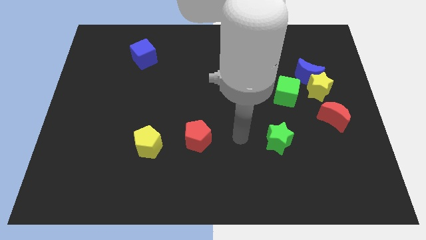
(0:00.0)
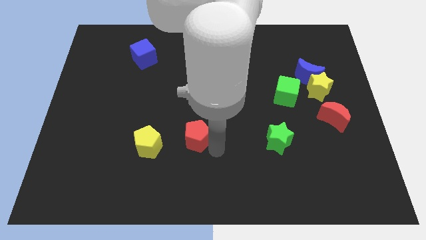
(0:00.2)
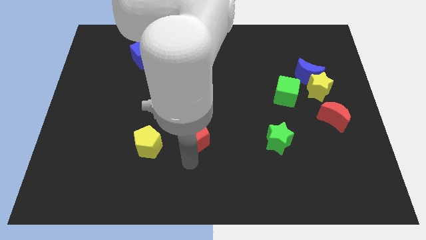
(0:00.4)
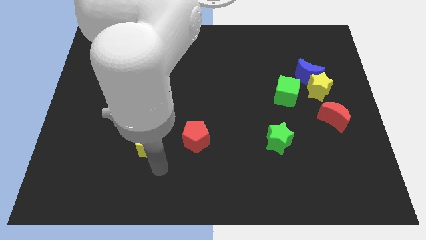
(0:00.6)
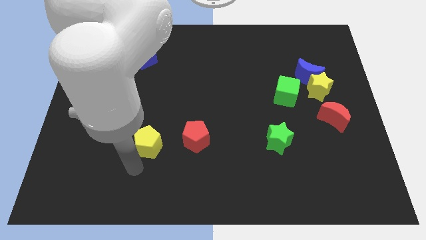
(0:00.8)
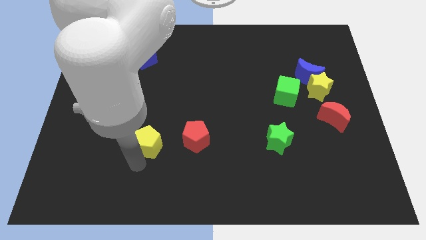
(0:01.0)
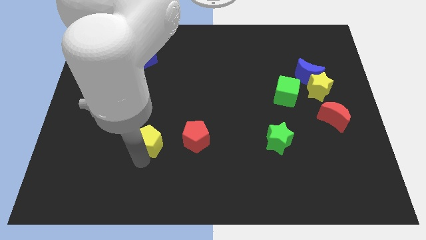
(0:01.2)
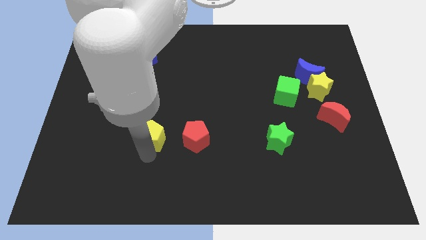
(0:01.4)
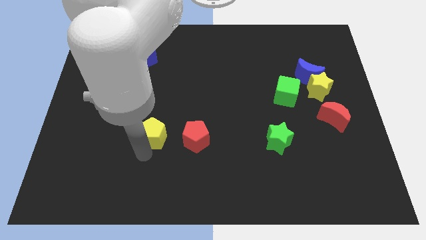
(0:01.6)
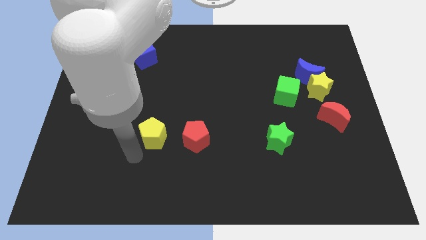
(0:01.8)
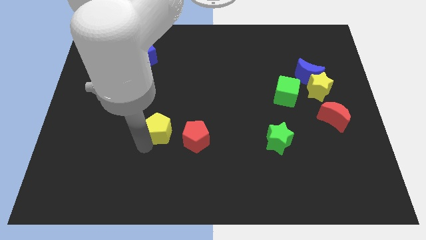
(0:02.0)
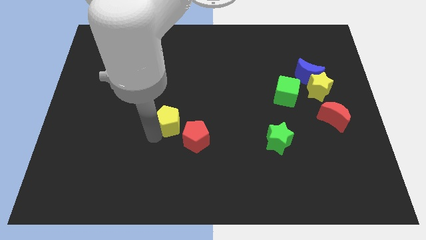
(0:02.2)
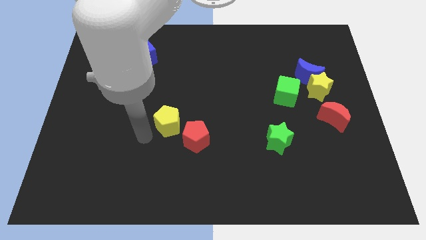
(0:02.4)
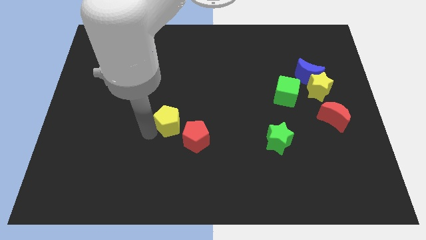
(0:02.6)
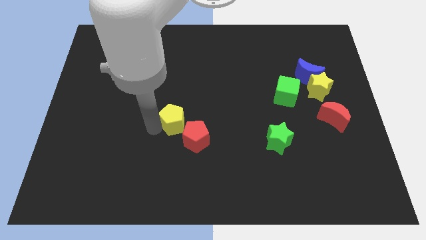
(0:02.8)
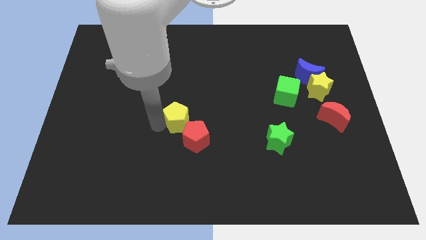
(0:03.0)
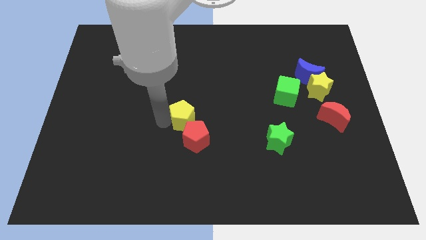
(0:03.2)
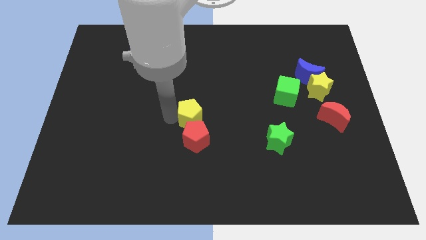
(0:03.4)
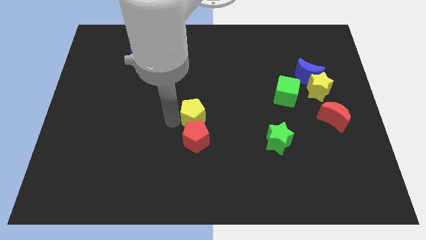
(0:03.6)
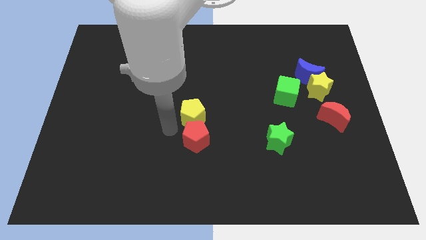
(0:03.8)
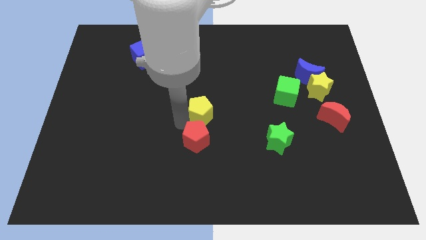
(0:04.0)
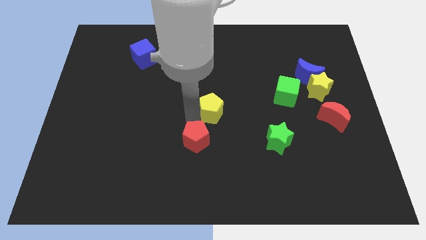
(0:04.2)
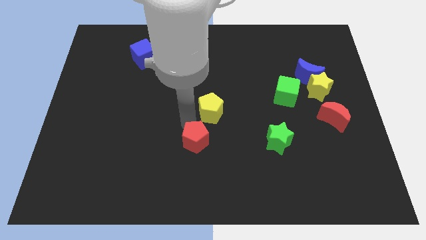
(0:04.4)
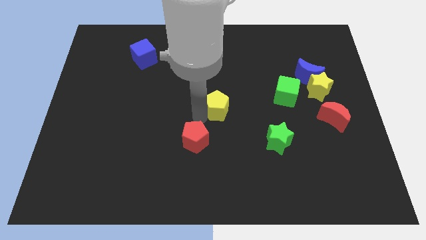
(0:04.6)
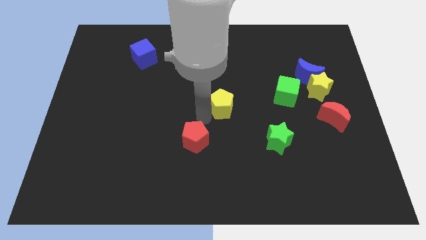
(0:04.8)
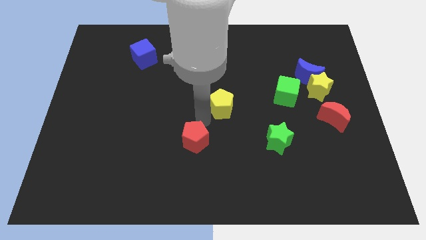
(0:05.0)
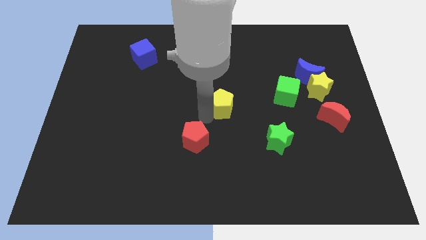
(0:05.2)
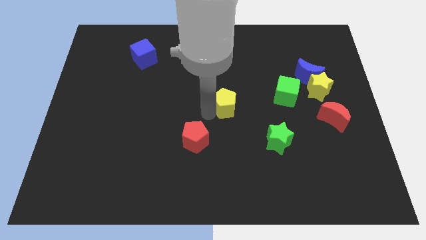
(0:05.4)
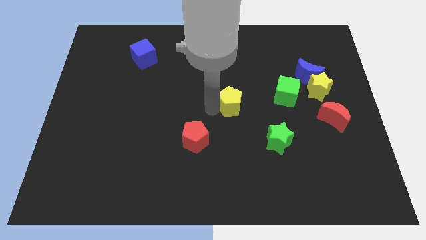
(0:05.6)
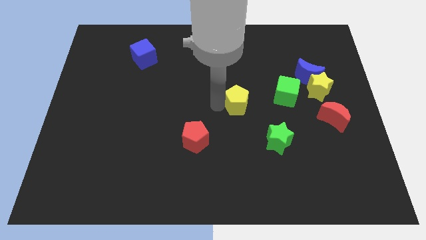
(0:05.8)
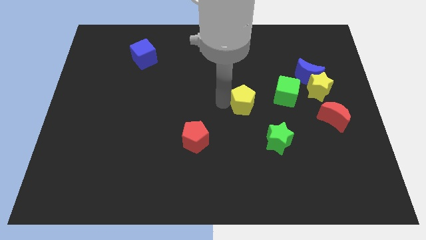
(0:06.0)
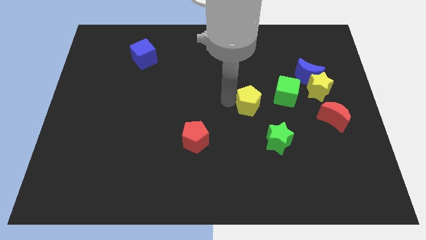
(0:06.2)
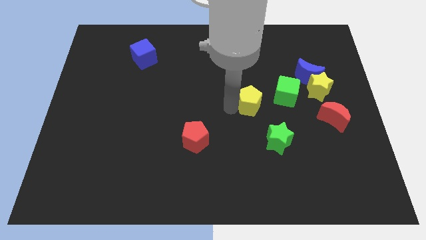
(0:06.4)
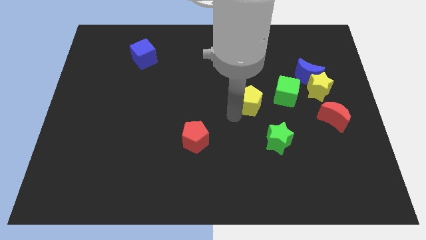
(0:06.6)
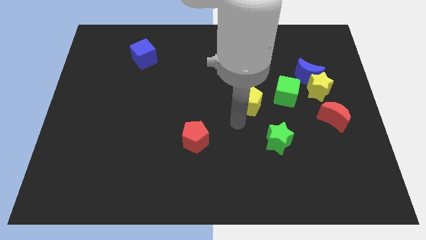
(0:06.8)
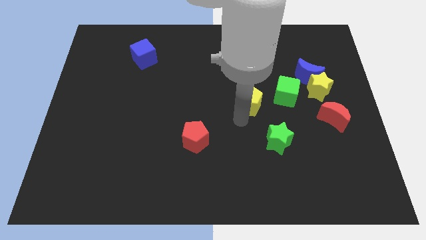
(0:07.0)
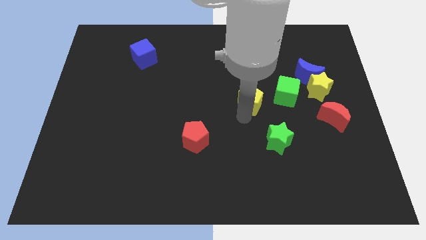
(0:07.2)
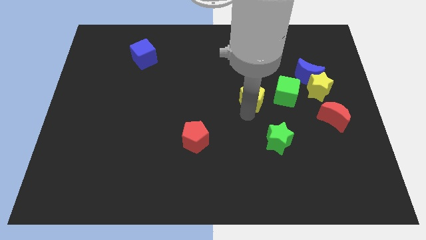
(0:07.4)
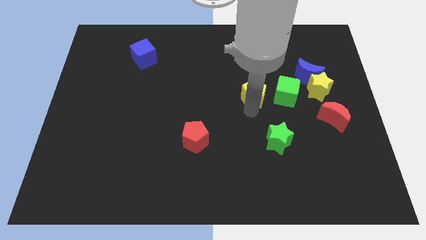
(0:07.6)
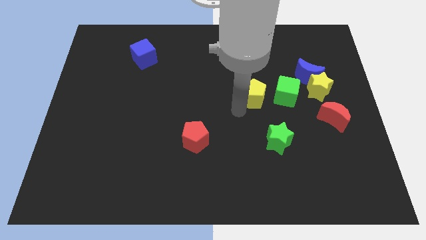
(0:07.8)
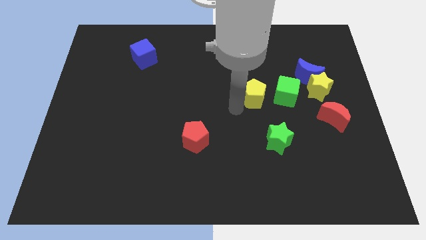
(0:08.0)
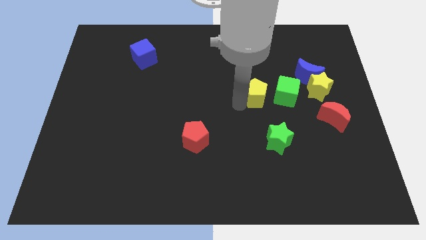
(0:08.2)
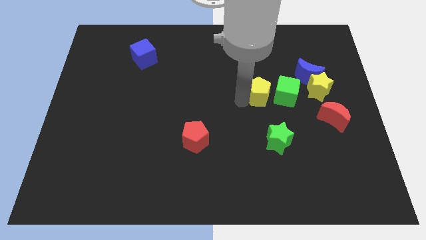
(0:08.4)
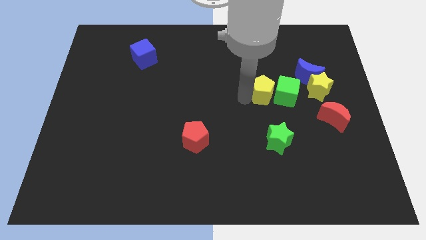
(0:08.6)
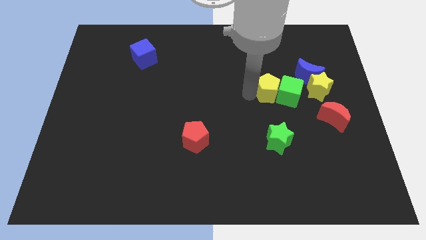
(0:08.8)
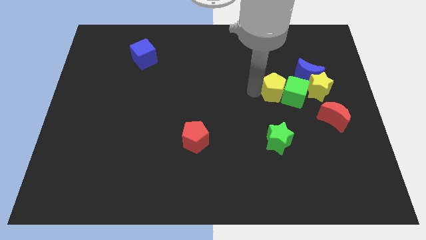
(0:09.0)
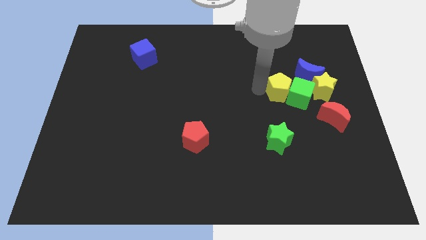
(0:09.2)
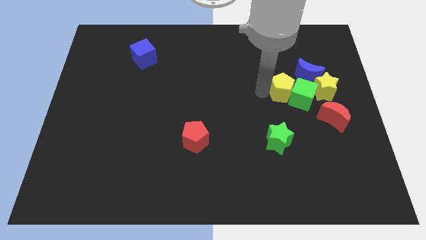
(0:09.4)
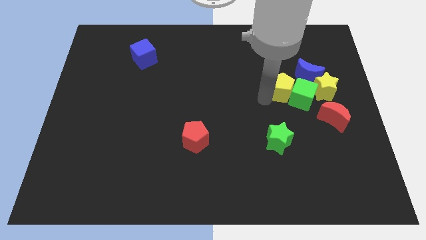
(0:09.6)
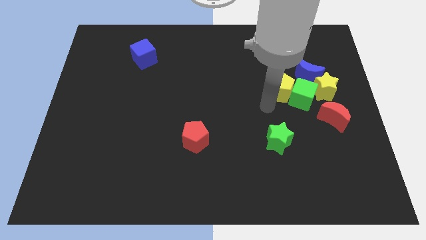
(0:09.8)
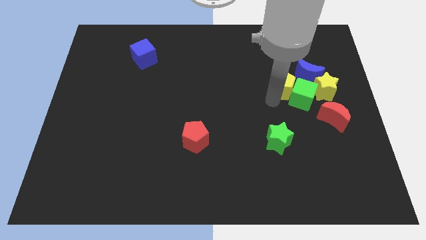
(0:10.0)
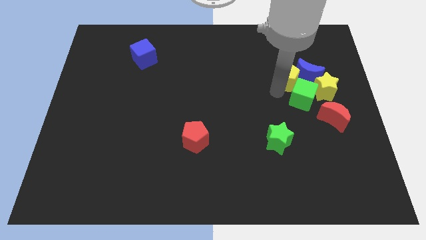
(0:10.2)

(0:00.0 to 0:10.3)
put the yellow pentagon next to the blue moon
